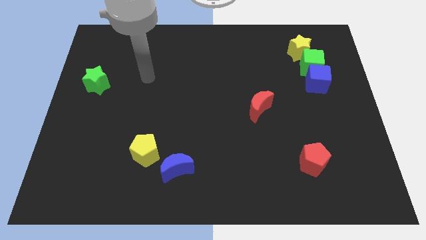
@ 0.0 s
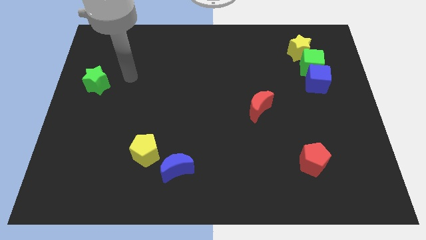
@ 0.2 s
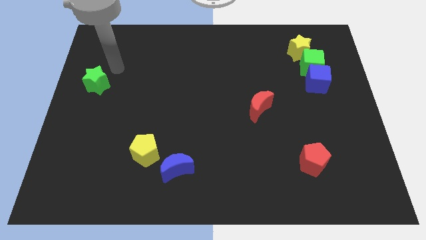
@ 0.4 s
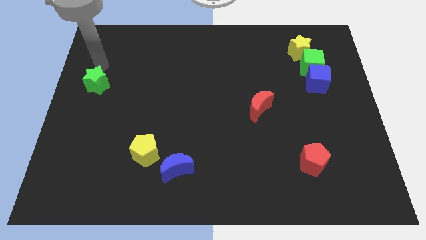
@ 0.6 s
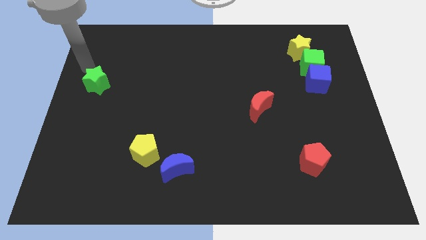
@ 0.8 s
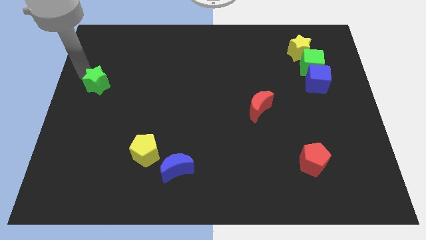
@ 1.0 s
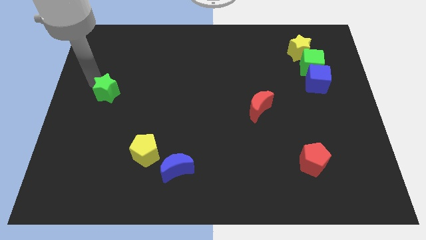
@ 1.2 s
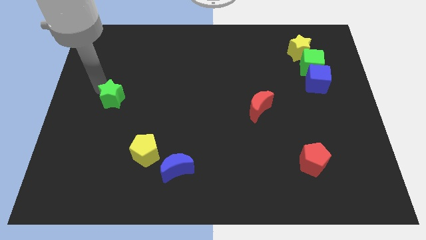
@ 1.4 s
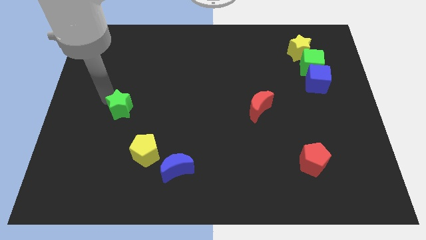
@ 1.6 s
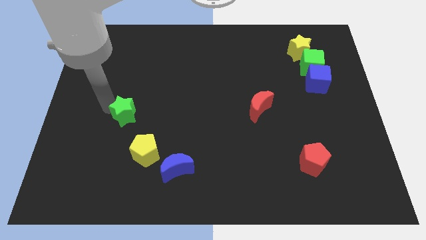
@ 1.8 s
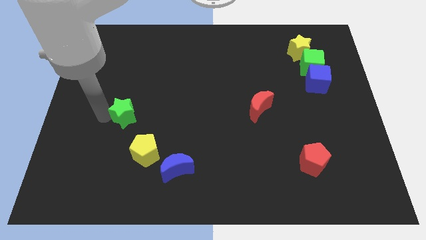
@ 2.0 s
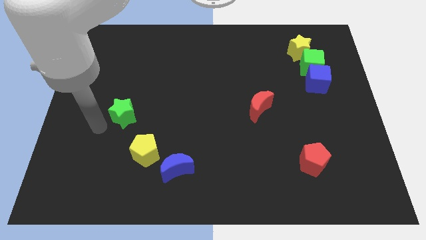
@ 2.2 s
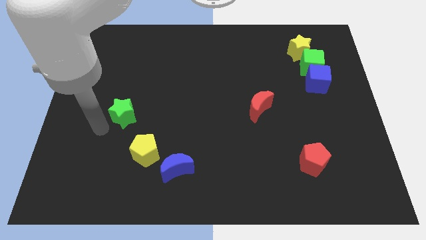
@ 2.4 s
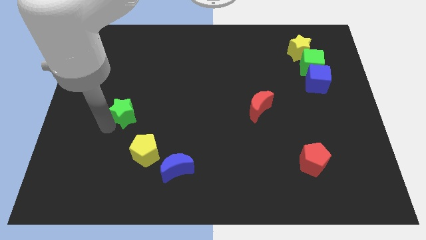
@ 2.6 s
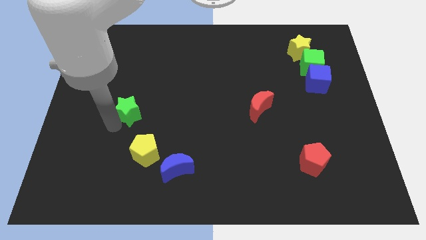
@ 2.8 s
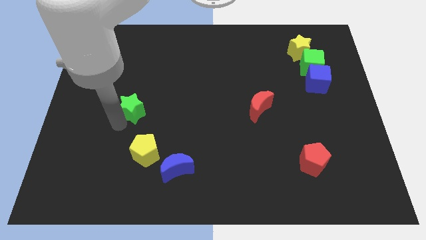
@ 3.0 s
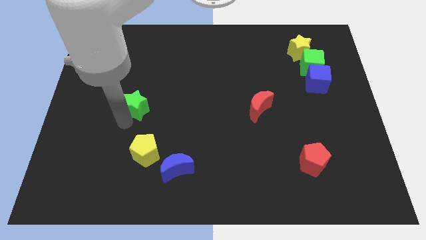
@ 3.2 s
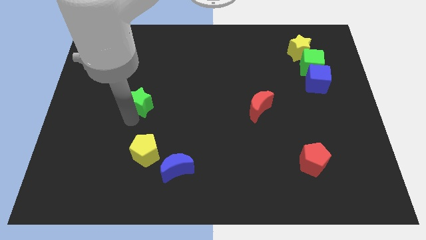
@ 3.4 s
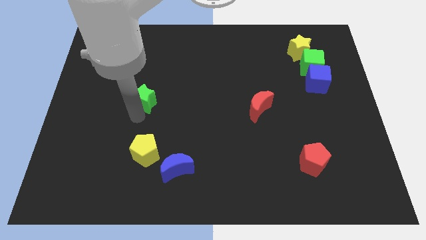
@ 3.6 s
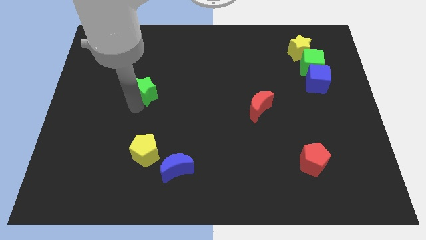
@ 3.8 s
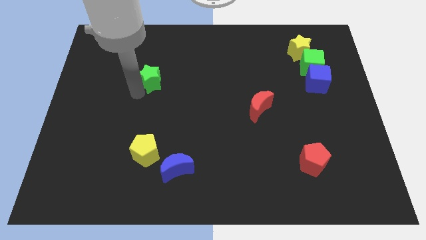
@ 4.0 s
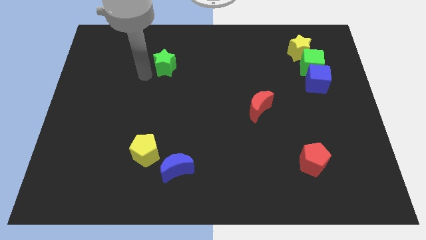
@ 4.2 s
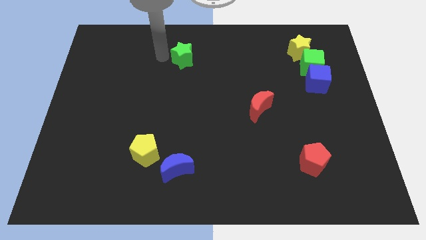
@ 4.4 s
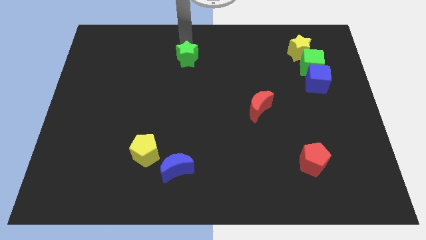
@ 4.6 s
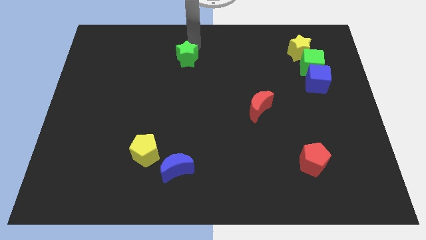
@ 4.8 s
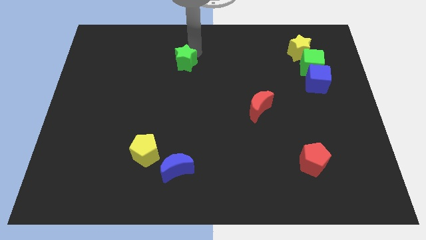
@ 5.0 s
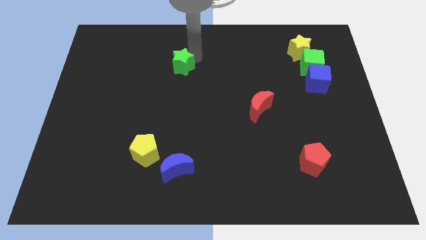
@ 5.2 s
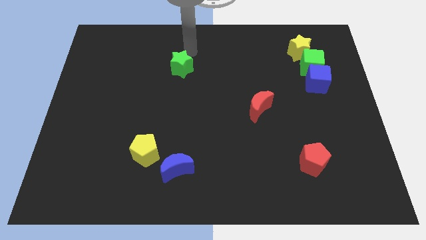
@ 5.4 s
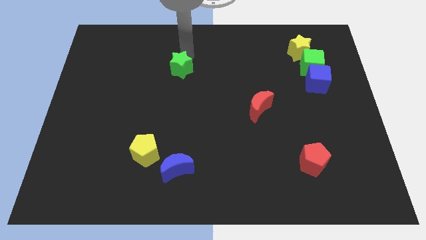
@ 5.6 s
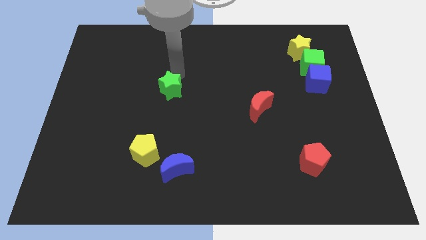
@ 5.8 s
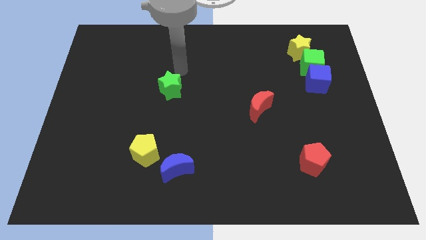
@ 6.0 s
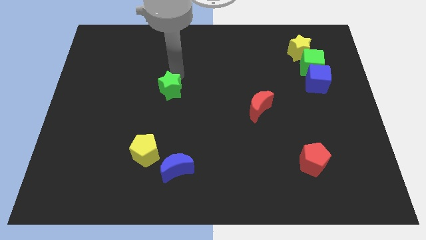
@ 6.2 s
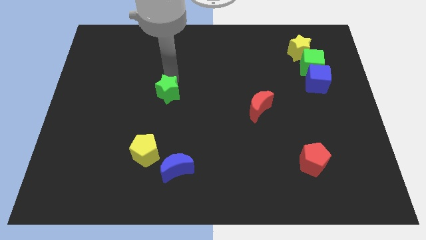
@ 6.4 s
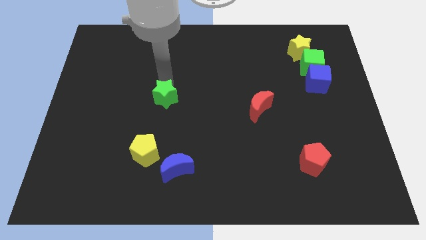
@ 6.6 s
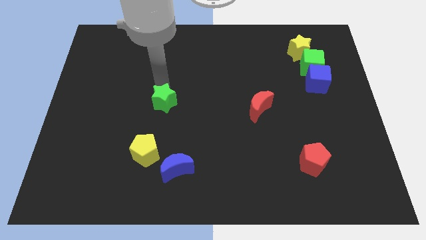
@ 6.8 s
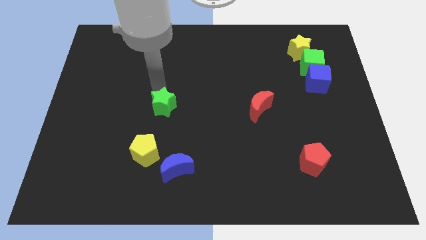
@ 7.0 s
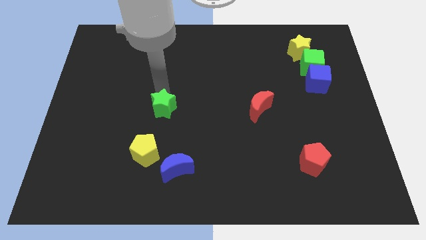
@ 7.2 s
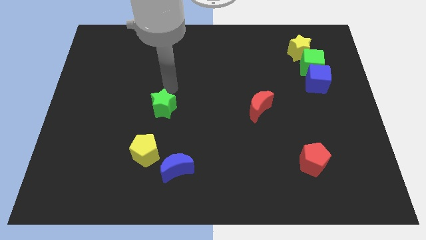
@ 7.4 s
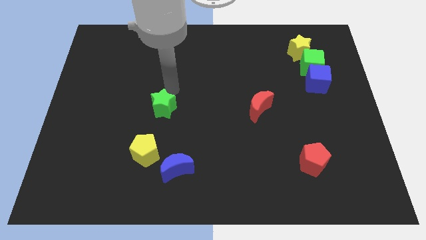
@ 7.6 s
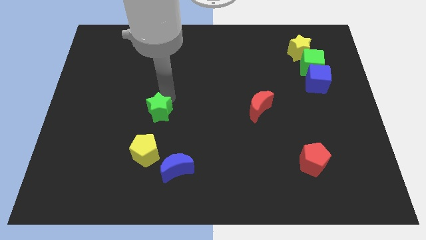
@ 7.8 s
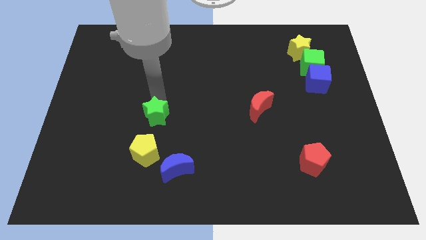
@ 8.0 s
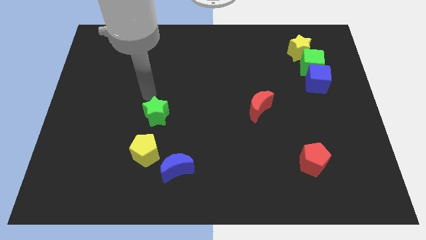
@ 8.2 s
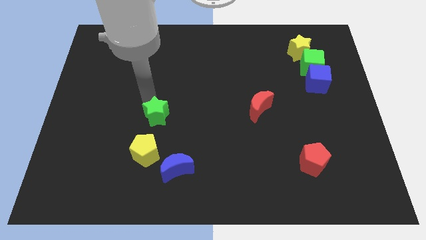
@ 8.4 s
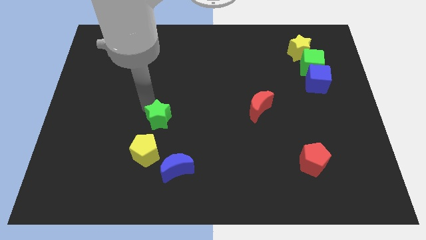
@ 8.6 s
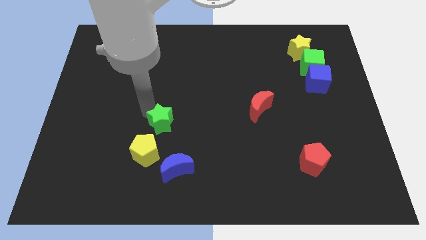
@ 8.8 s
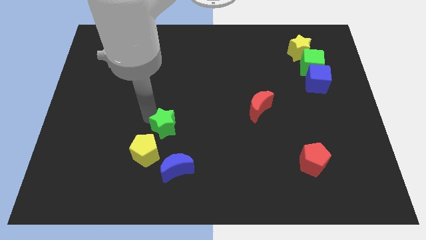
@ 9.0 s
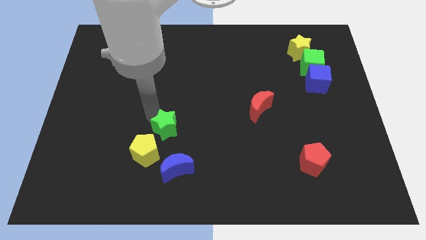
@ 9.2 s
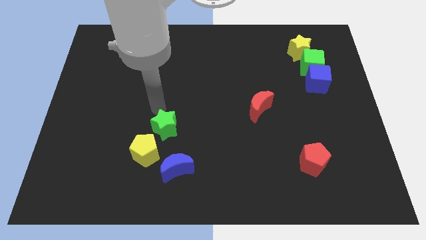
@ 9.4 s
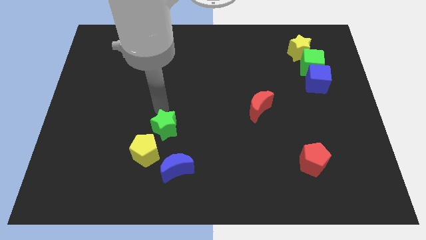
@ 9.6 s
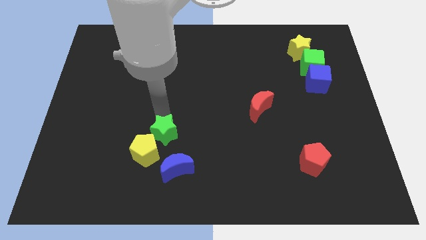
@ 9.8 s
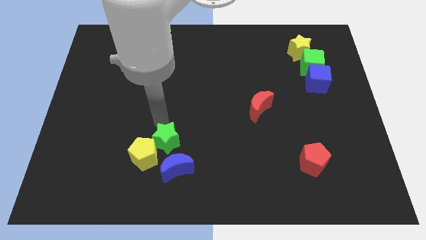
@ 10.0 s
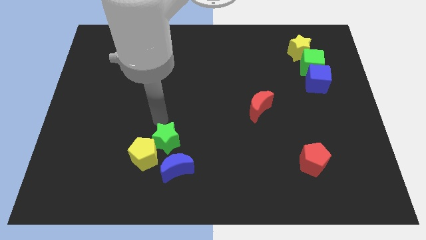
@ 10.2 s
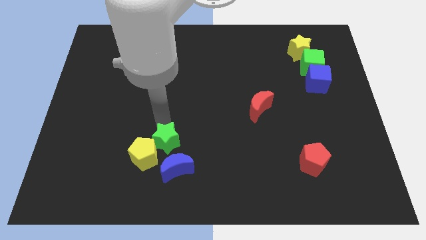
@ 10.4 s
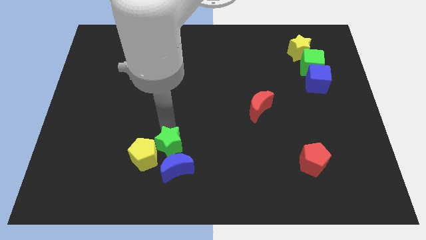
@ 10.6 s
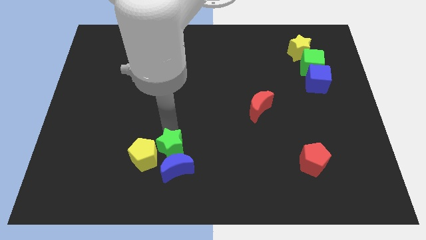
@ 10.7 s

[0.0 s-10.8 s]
push the green star towards the blue moon

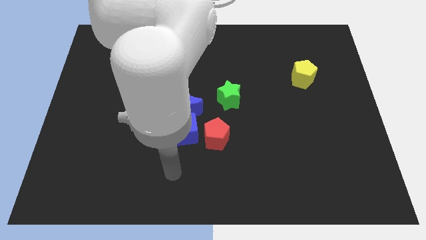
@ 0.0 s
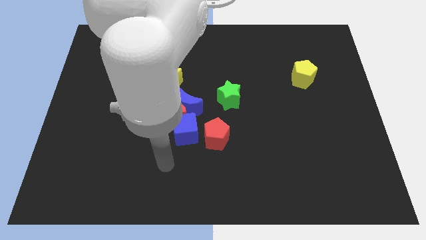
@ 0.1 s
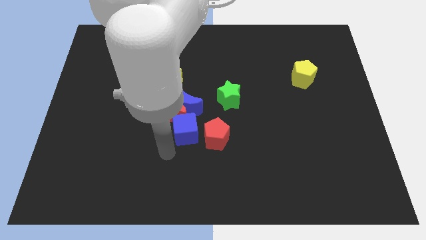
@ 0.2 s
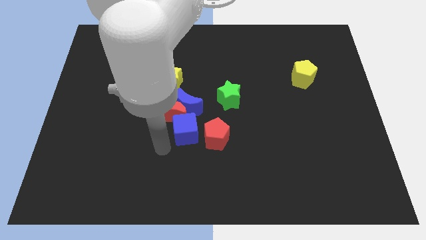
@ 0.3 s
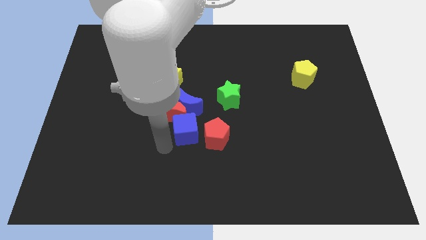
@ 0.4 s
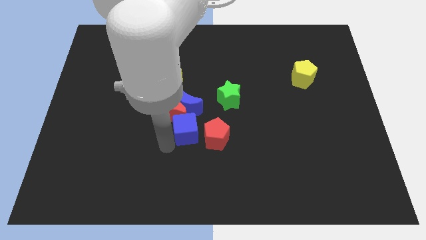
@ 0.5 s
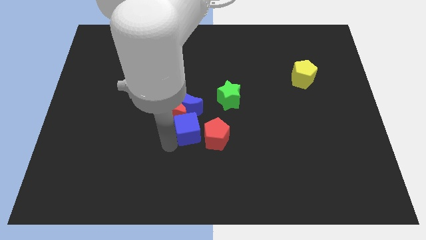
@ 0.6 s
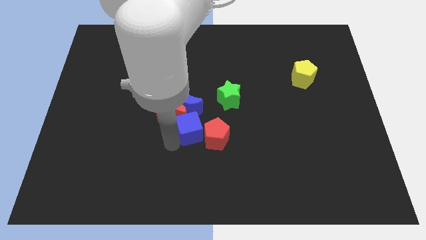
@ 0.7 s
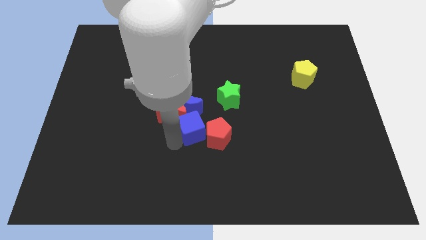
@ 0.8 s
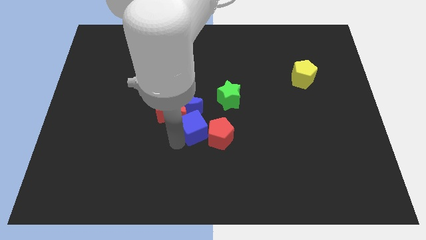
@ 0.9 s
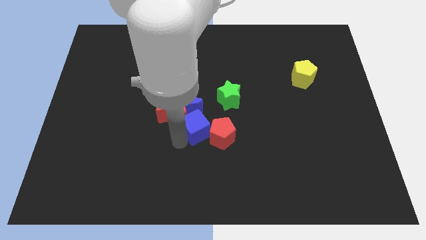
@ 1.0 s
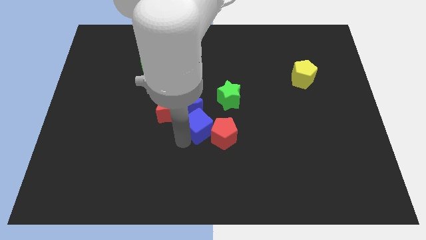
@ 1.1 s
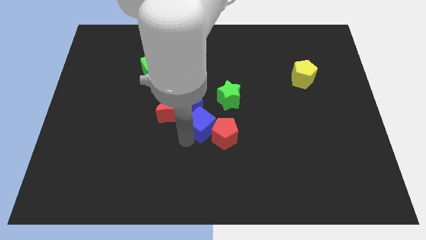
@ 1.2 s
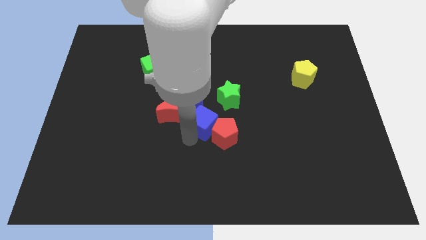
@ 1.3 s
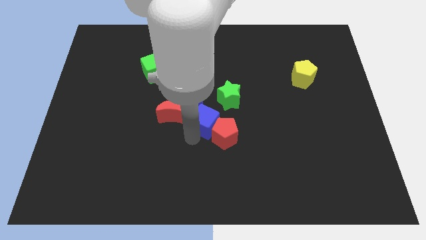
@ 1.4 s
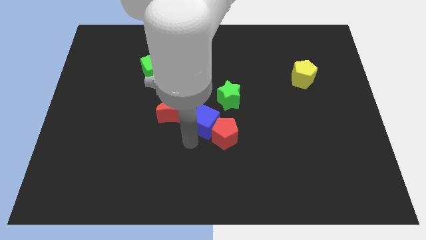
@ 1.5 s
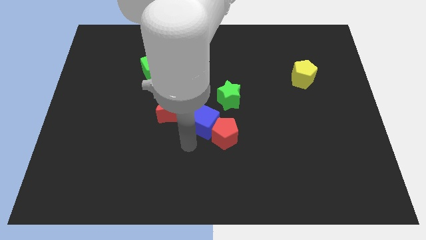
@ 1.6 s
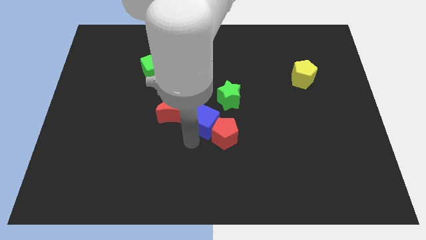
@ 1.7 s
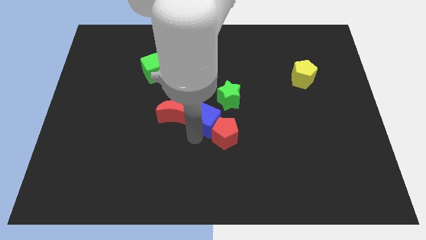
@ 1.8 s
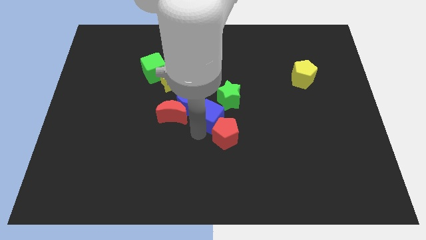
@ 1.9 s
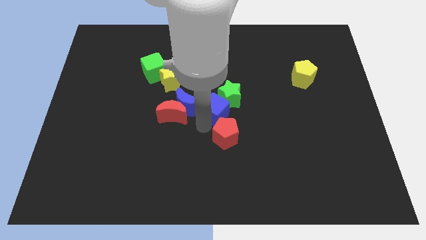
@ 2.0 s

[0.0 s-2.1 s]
slide the blue cube to the green star

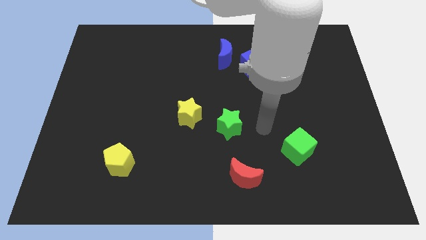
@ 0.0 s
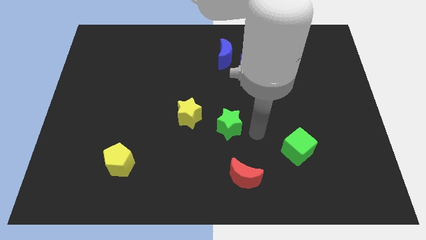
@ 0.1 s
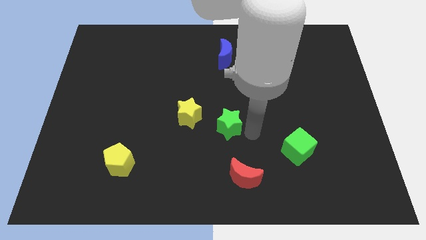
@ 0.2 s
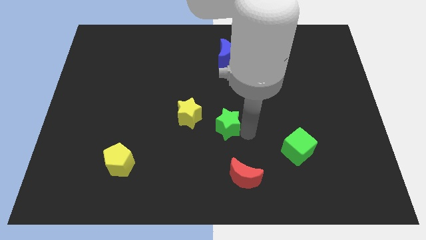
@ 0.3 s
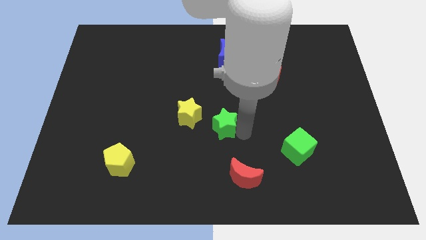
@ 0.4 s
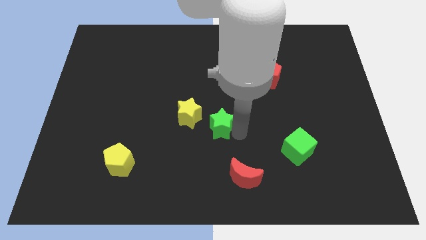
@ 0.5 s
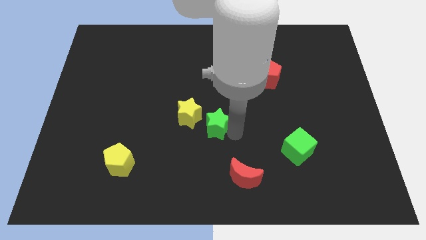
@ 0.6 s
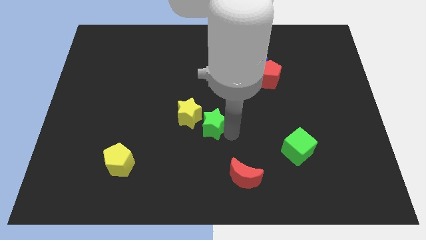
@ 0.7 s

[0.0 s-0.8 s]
put the green star to the yellow star
